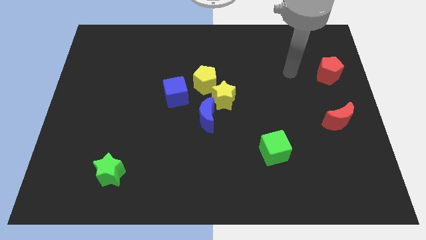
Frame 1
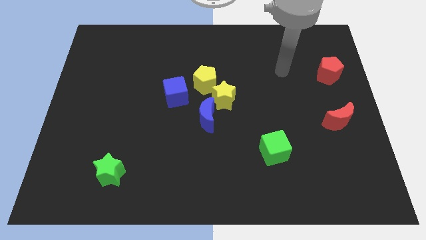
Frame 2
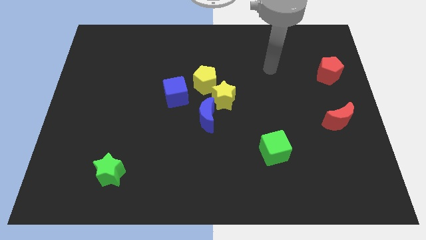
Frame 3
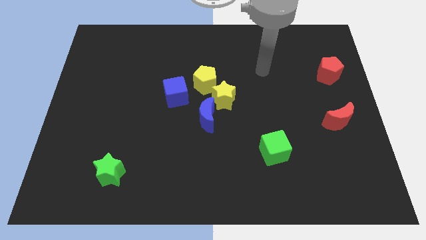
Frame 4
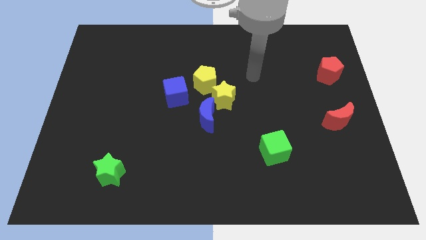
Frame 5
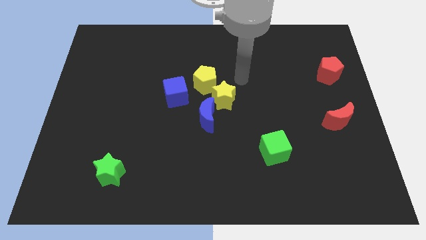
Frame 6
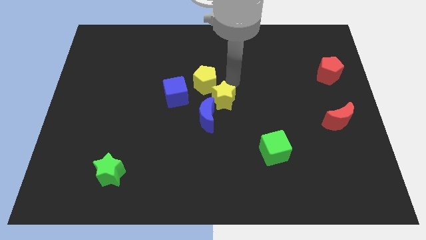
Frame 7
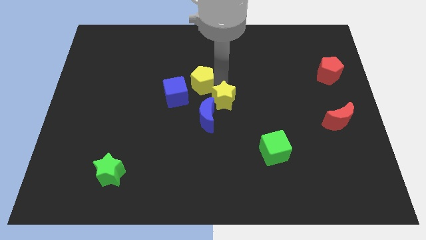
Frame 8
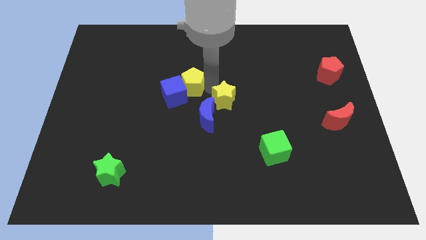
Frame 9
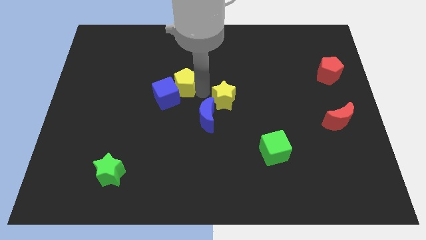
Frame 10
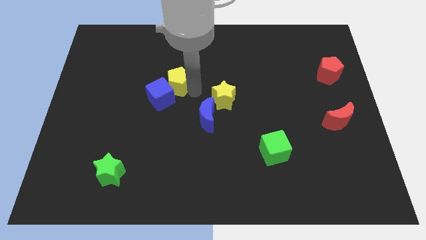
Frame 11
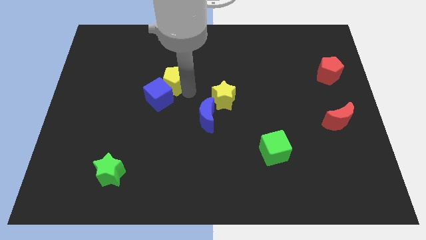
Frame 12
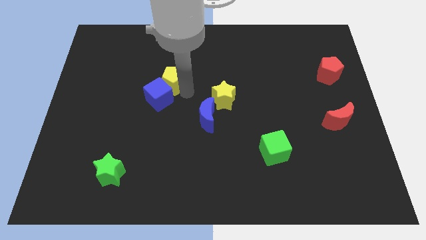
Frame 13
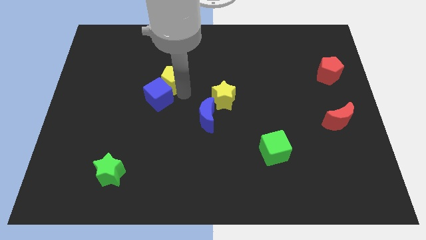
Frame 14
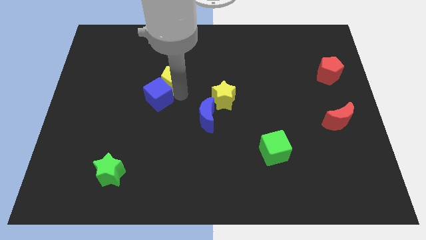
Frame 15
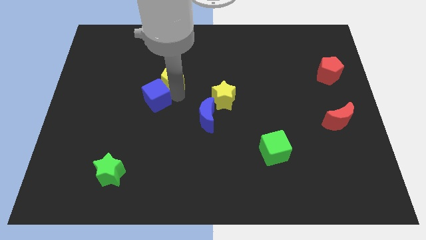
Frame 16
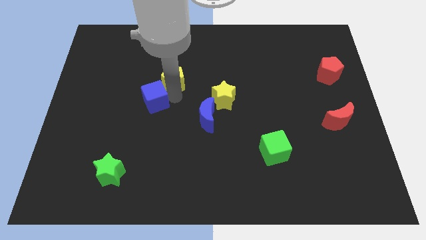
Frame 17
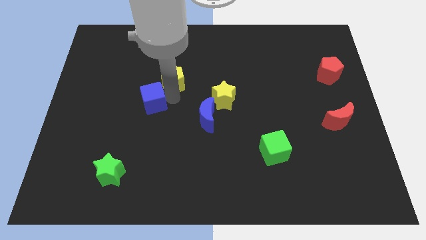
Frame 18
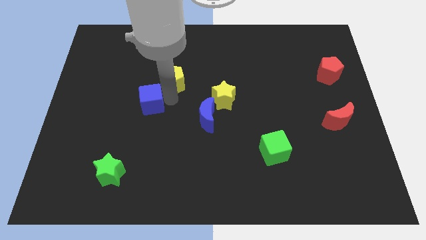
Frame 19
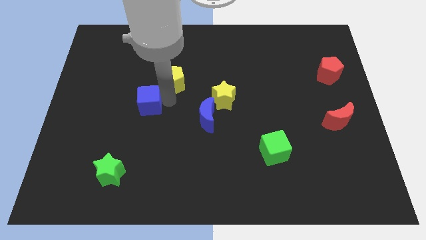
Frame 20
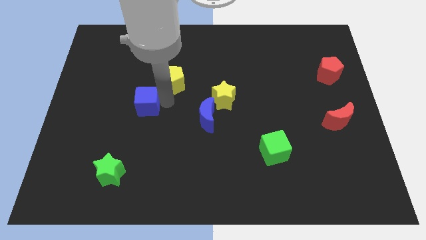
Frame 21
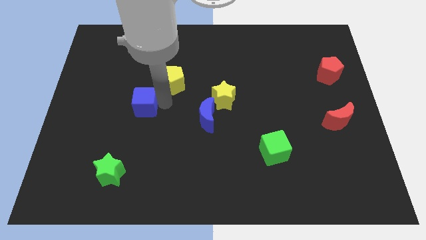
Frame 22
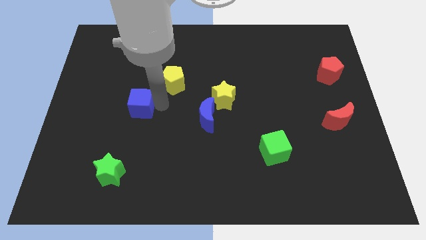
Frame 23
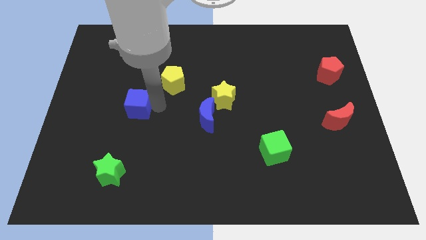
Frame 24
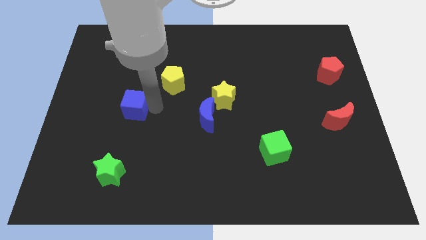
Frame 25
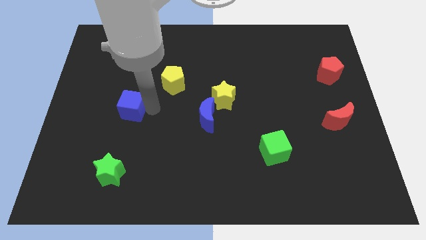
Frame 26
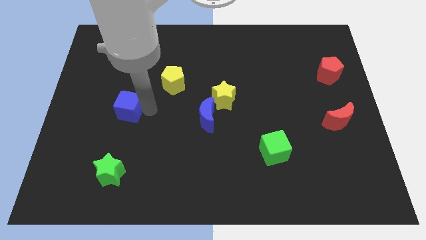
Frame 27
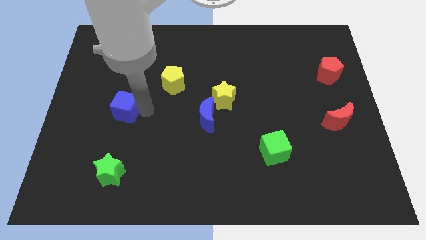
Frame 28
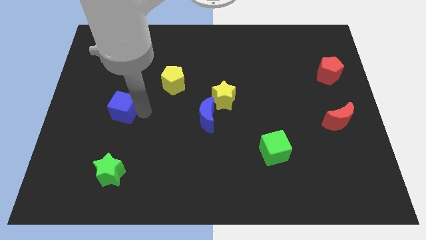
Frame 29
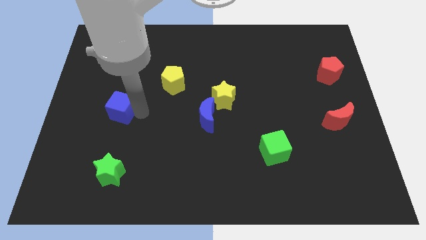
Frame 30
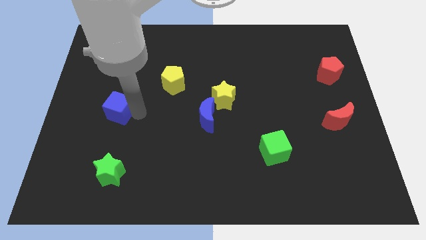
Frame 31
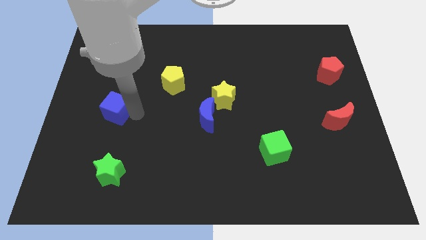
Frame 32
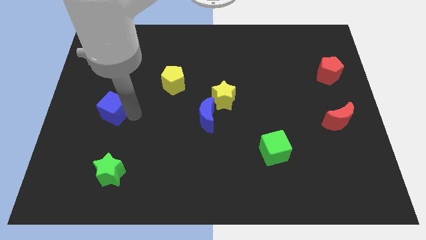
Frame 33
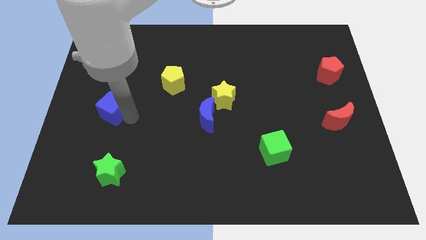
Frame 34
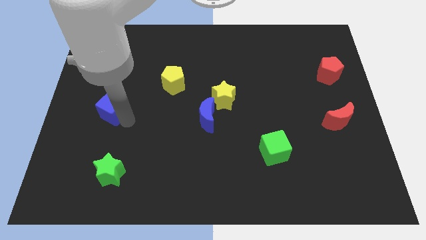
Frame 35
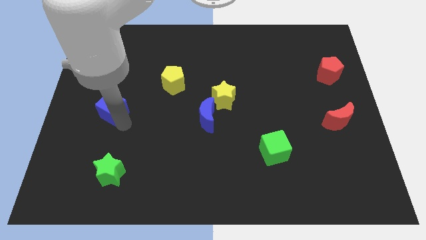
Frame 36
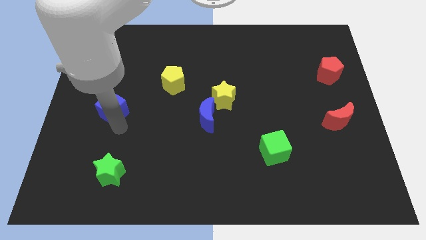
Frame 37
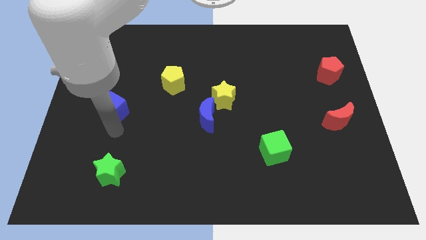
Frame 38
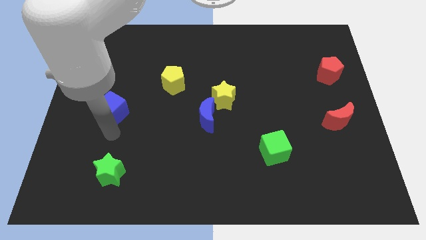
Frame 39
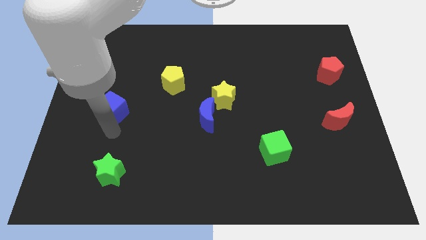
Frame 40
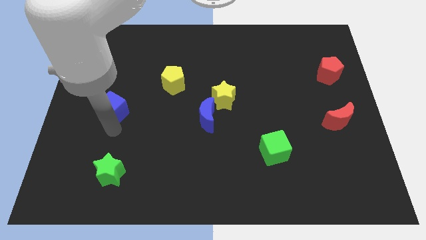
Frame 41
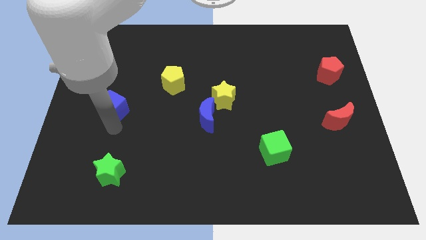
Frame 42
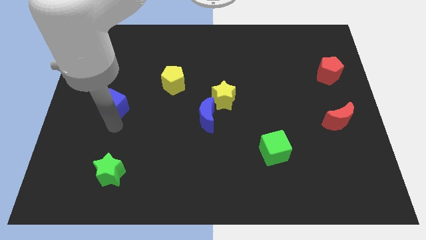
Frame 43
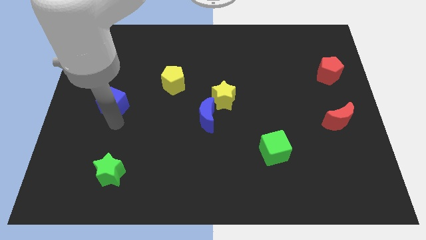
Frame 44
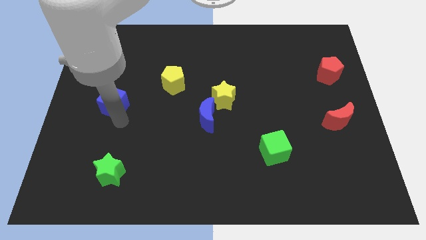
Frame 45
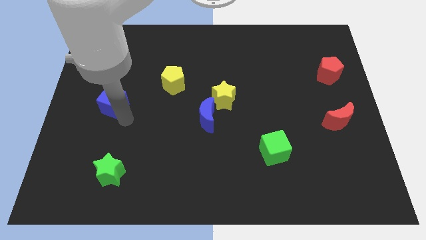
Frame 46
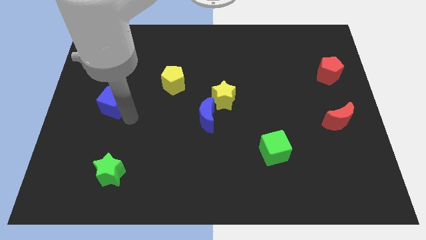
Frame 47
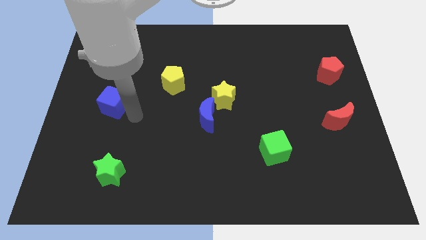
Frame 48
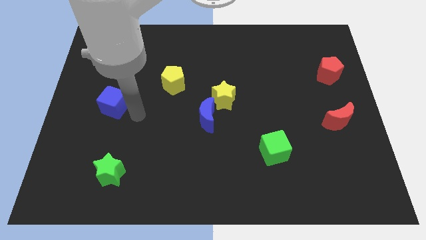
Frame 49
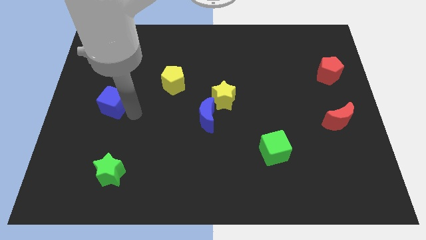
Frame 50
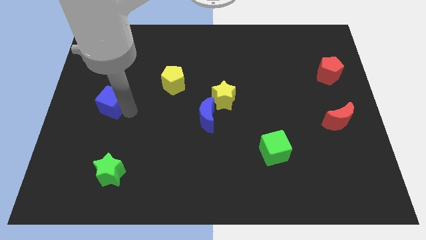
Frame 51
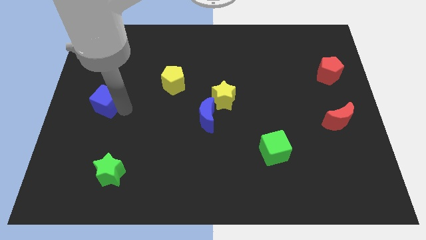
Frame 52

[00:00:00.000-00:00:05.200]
move the blue cube to the left side
